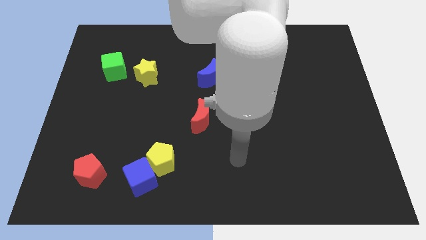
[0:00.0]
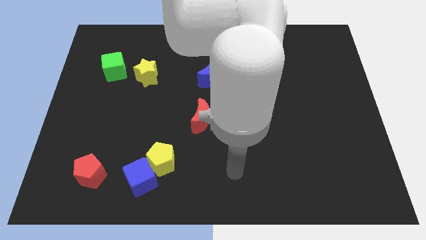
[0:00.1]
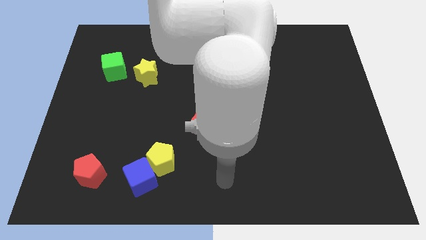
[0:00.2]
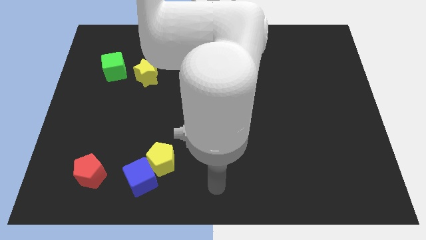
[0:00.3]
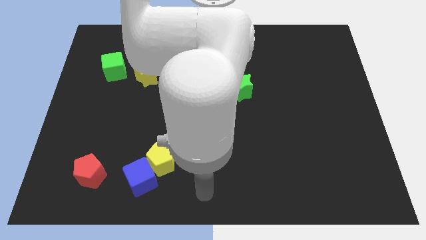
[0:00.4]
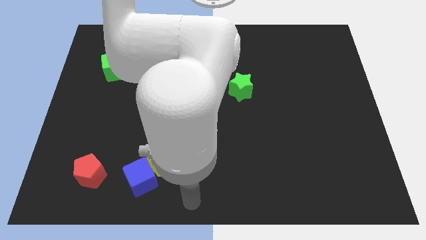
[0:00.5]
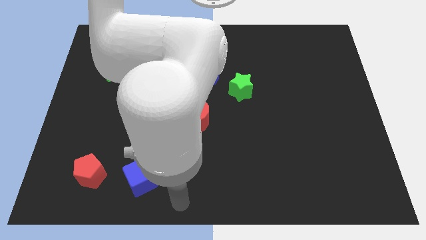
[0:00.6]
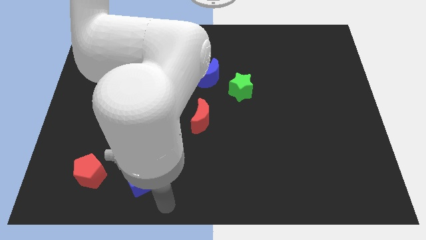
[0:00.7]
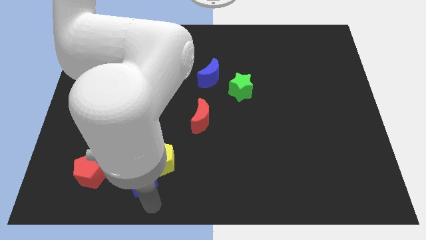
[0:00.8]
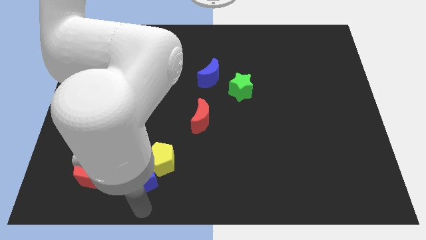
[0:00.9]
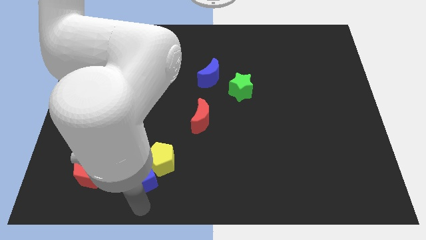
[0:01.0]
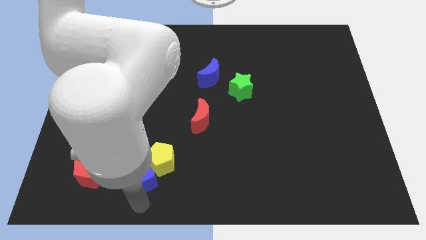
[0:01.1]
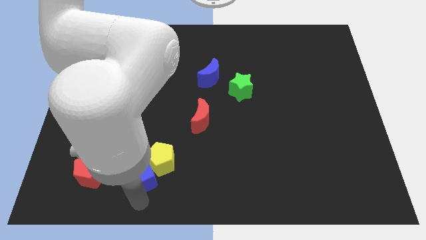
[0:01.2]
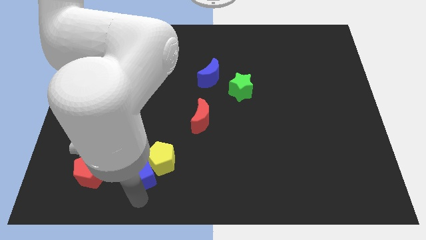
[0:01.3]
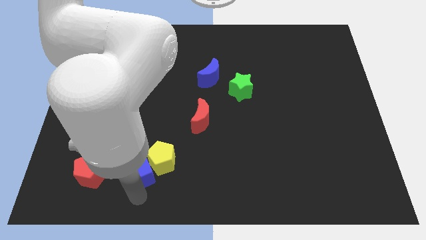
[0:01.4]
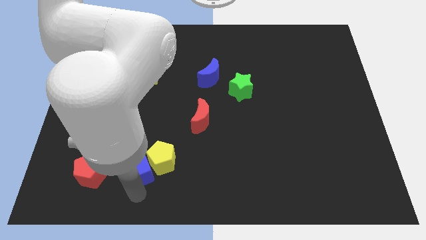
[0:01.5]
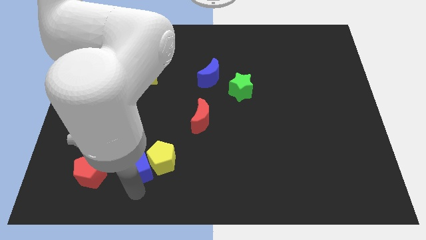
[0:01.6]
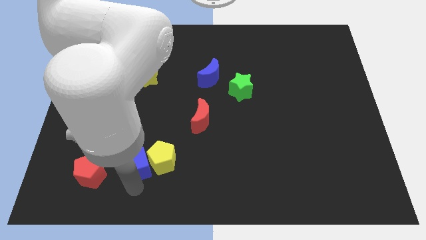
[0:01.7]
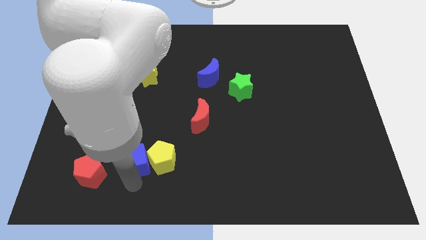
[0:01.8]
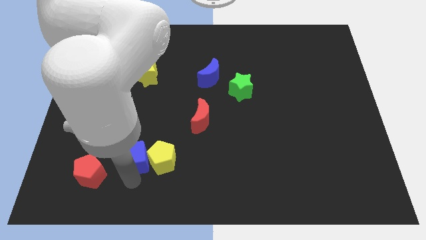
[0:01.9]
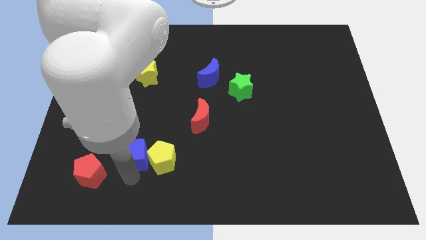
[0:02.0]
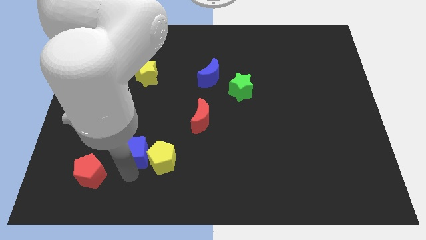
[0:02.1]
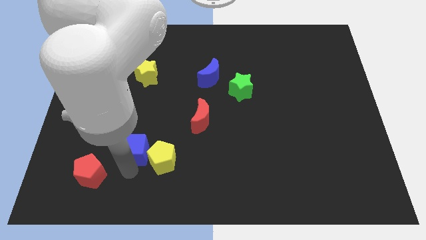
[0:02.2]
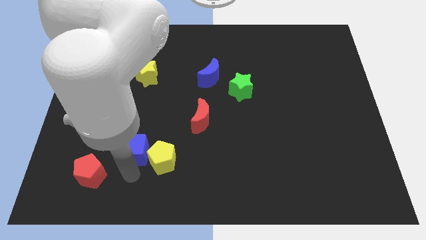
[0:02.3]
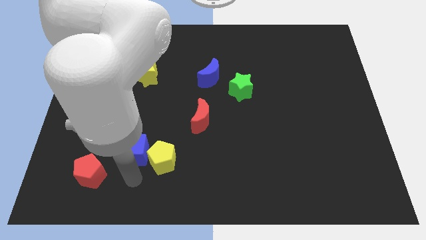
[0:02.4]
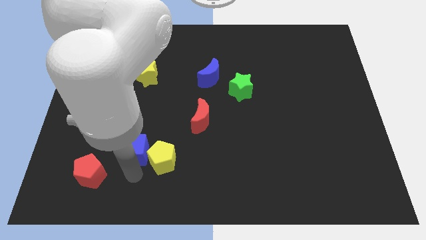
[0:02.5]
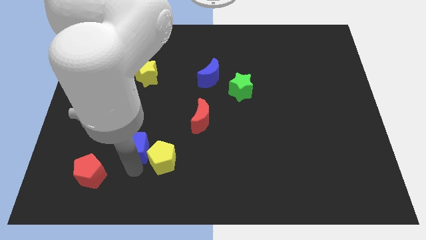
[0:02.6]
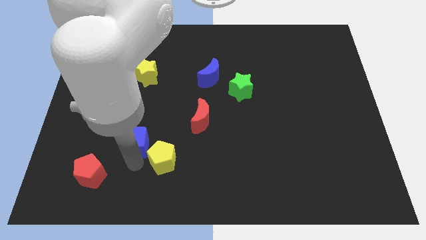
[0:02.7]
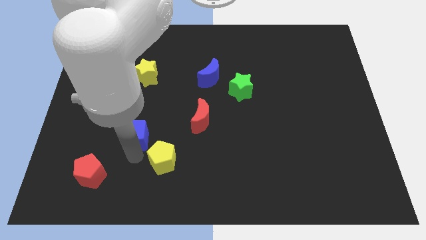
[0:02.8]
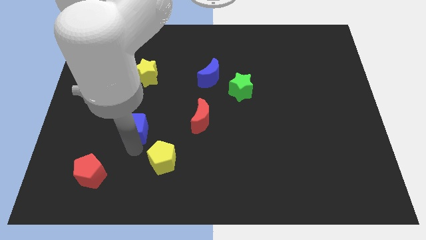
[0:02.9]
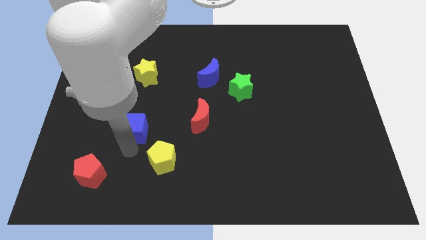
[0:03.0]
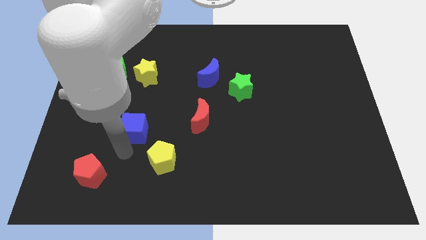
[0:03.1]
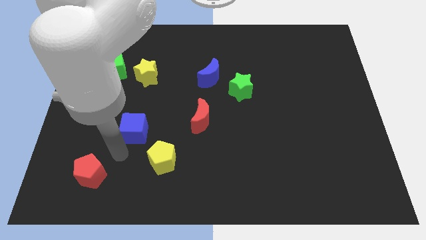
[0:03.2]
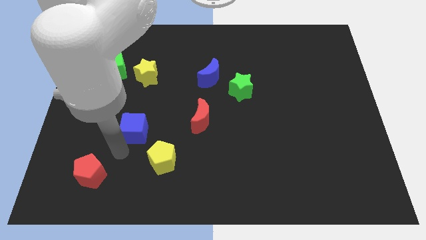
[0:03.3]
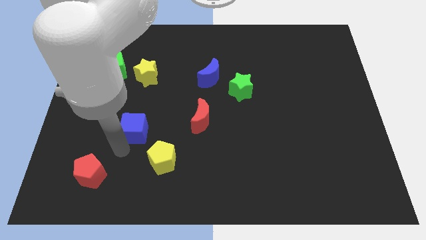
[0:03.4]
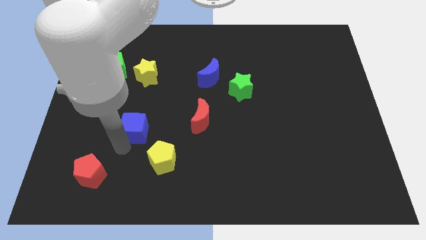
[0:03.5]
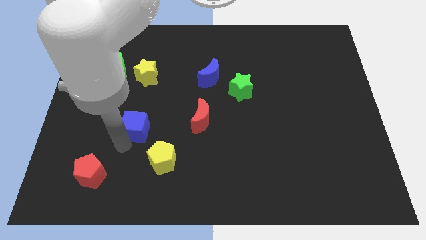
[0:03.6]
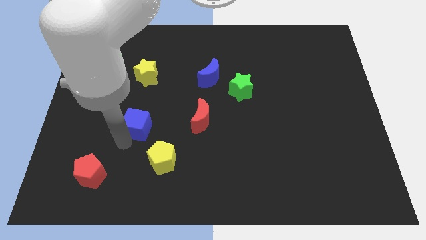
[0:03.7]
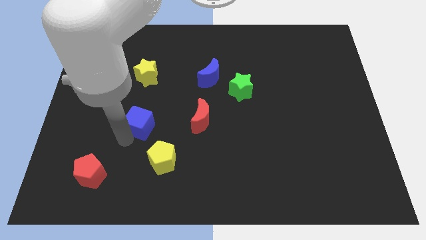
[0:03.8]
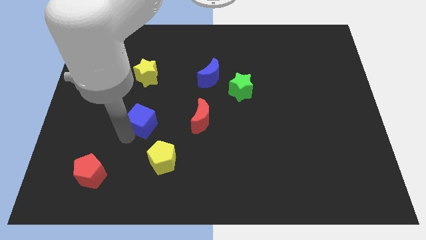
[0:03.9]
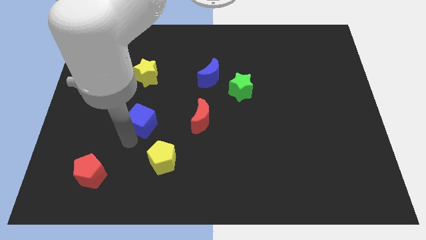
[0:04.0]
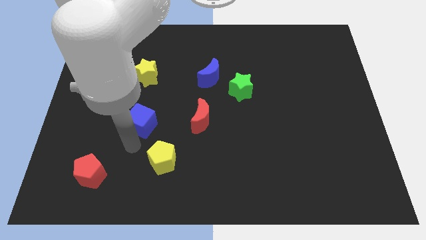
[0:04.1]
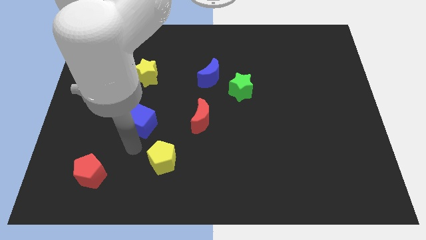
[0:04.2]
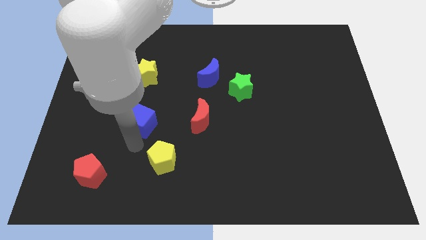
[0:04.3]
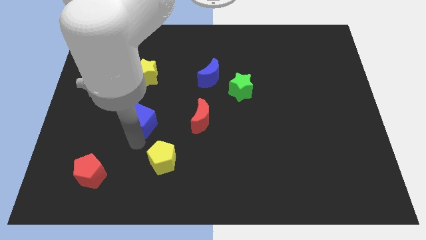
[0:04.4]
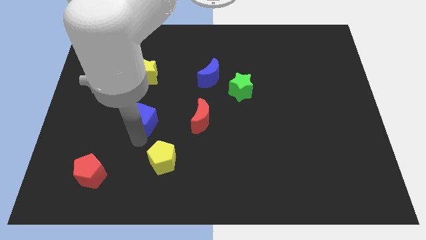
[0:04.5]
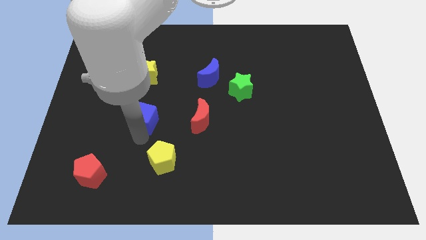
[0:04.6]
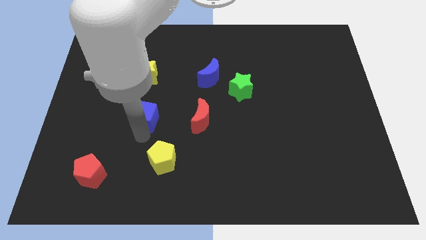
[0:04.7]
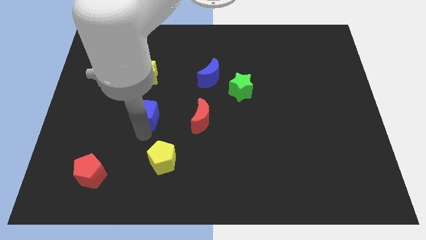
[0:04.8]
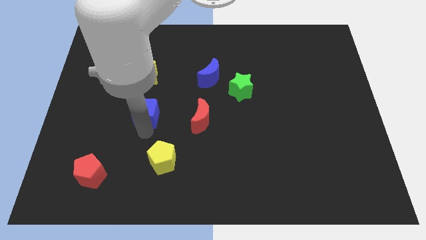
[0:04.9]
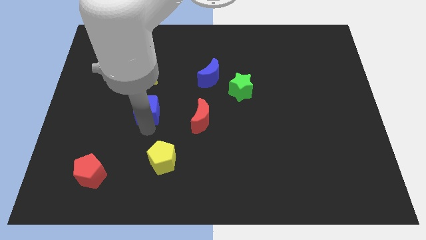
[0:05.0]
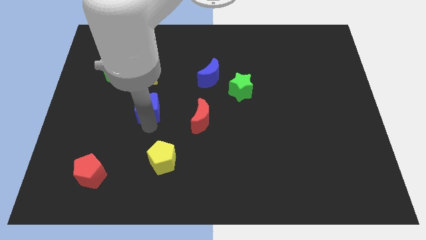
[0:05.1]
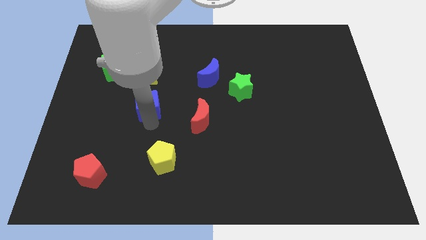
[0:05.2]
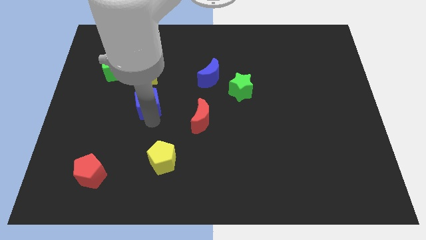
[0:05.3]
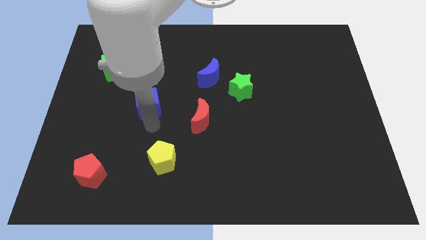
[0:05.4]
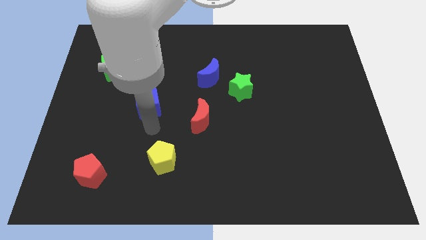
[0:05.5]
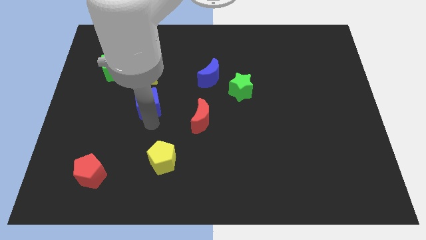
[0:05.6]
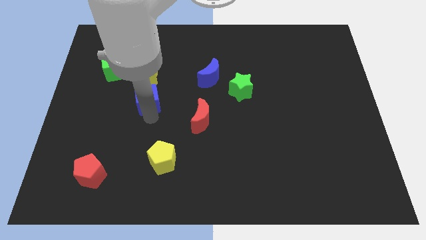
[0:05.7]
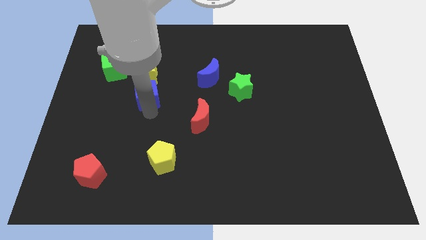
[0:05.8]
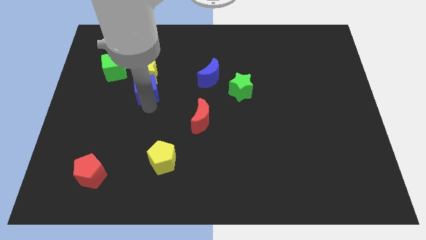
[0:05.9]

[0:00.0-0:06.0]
slide the blue cube next to the yellow star

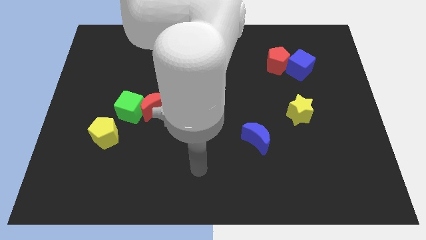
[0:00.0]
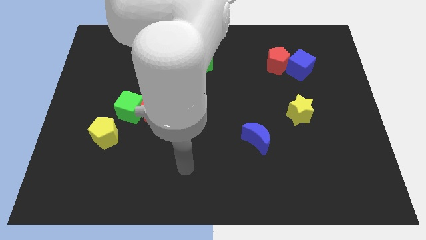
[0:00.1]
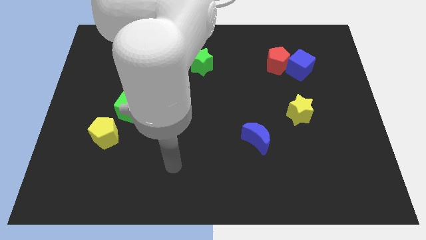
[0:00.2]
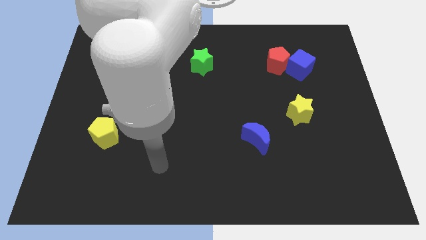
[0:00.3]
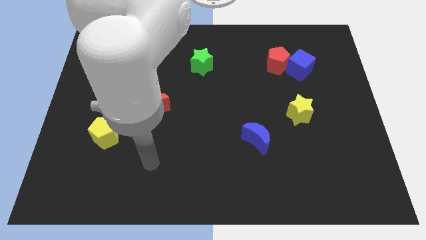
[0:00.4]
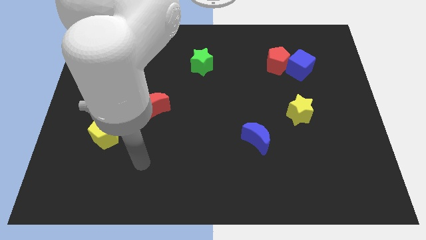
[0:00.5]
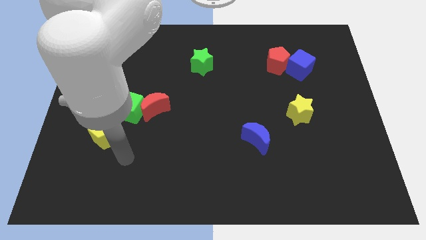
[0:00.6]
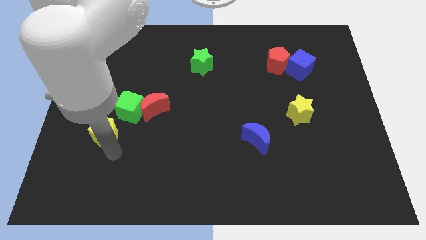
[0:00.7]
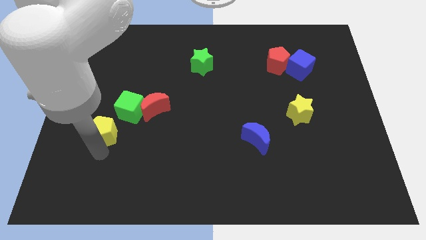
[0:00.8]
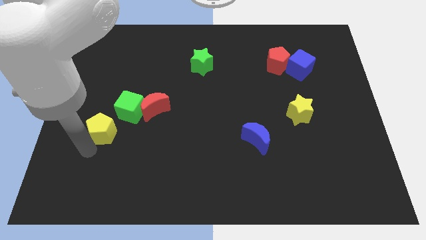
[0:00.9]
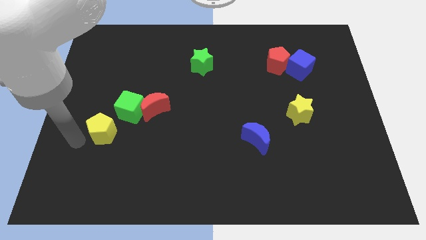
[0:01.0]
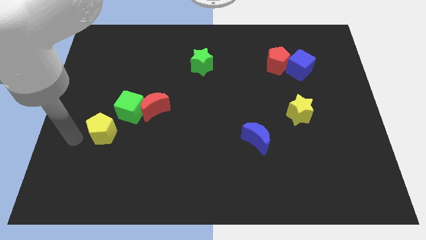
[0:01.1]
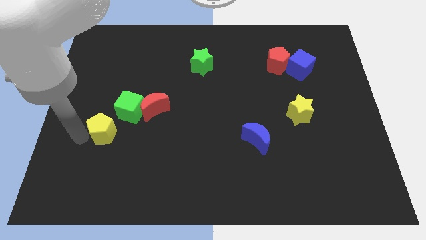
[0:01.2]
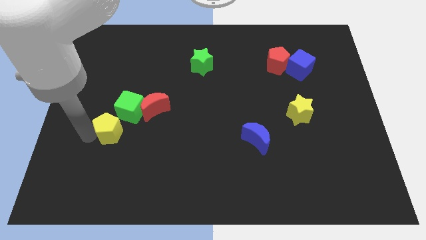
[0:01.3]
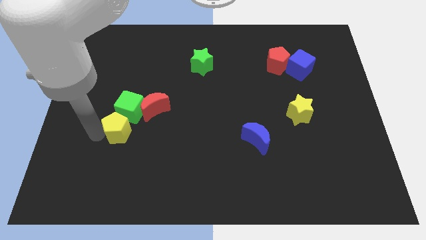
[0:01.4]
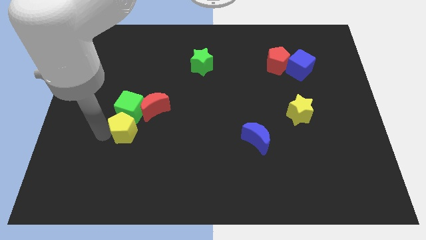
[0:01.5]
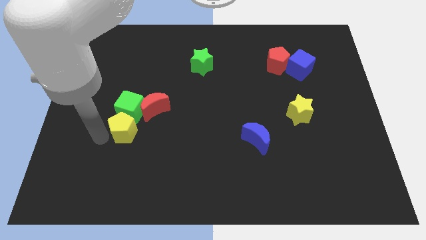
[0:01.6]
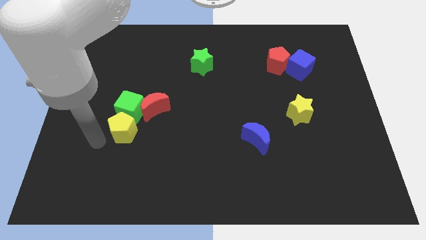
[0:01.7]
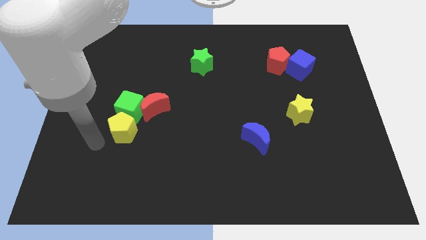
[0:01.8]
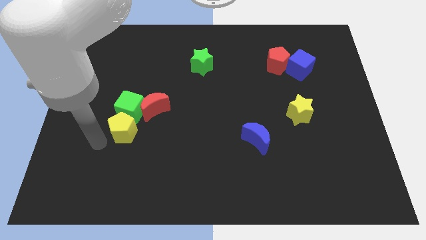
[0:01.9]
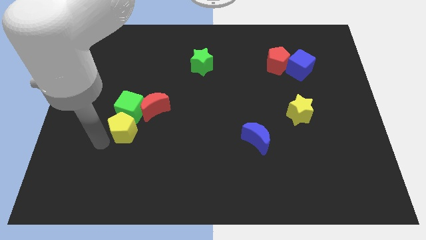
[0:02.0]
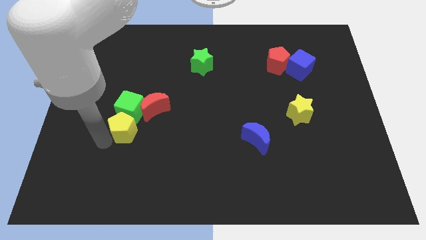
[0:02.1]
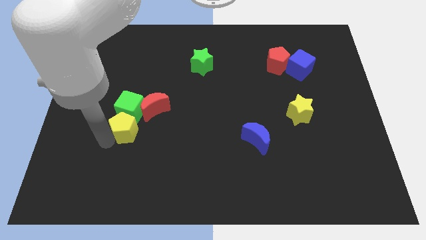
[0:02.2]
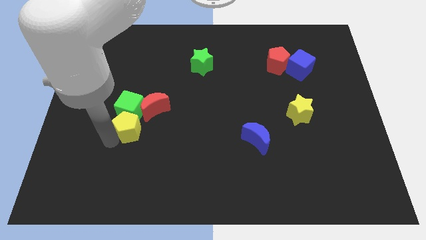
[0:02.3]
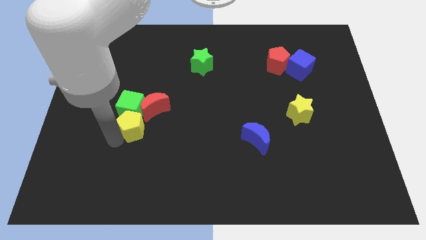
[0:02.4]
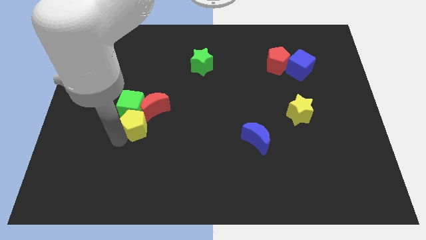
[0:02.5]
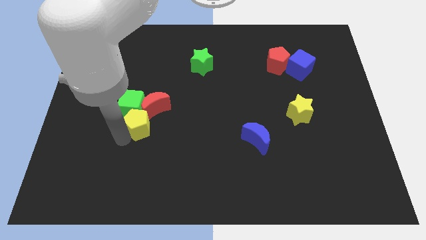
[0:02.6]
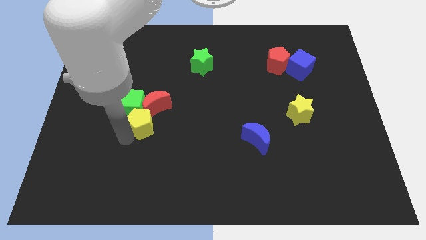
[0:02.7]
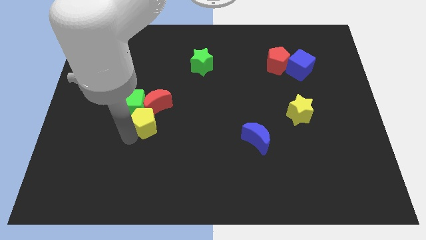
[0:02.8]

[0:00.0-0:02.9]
move the yellow pentagon close to the red moon
